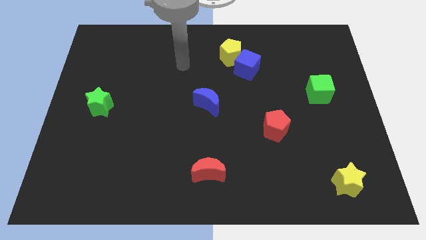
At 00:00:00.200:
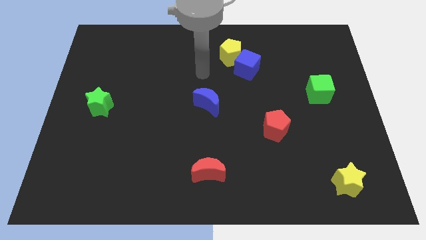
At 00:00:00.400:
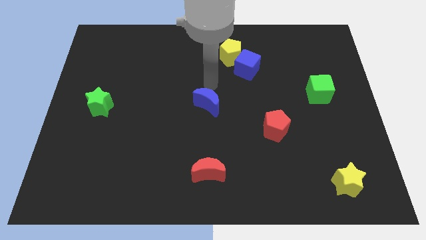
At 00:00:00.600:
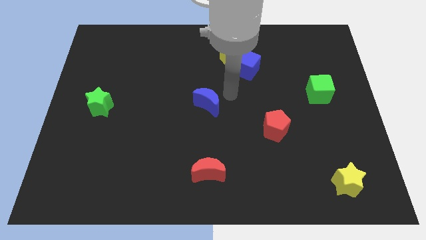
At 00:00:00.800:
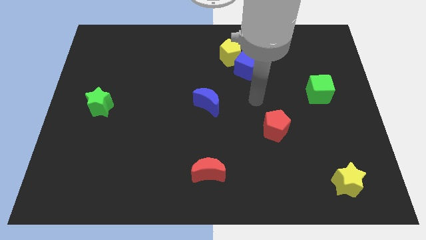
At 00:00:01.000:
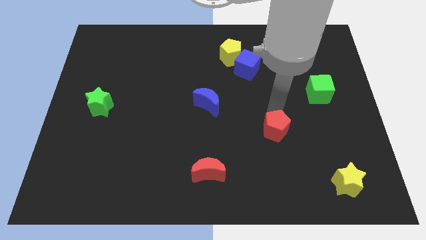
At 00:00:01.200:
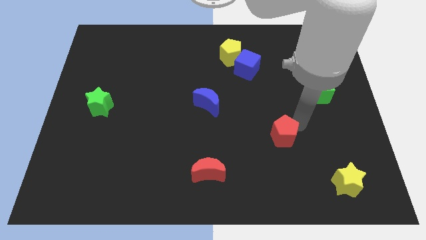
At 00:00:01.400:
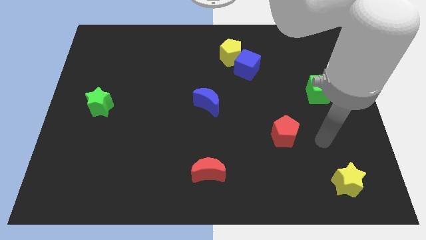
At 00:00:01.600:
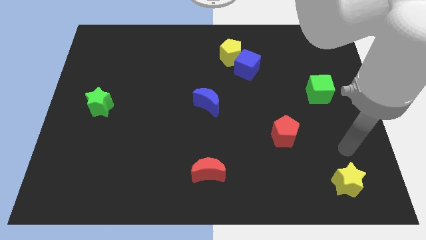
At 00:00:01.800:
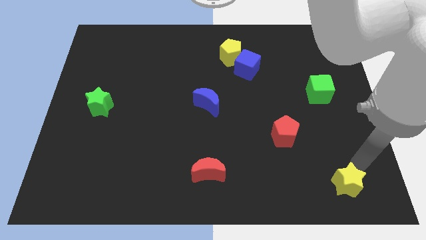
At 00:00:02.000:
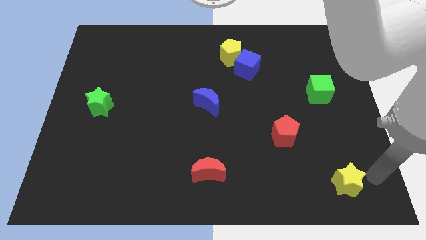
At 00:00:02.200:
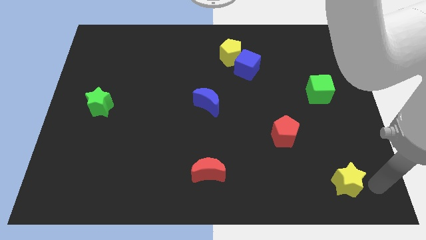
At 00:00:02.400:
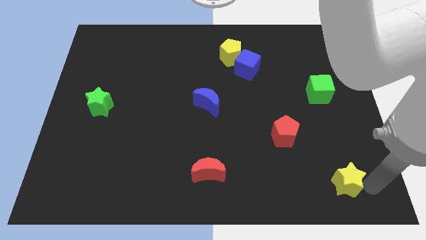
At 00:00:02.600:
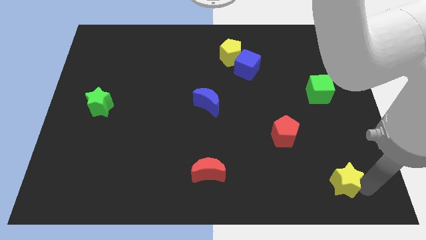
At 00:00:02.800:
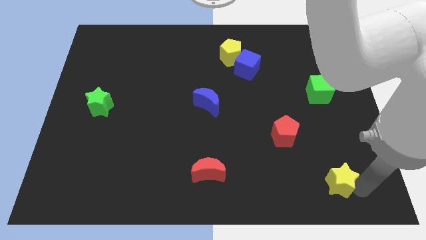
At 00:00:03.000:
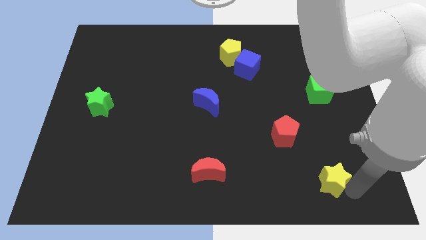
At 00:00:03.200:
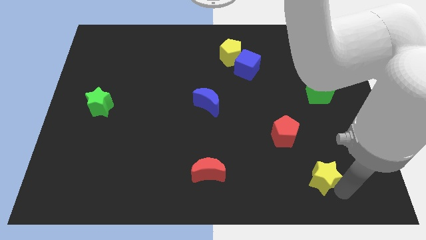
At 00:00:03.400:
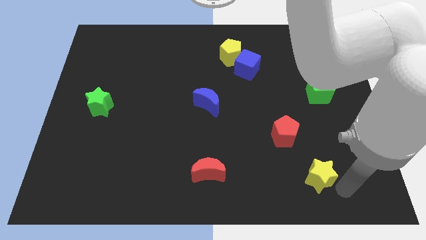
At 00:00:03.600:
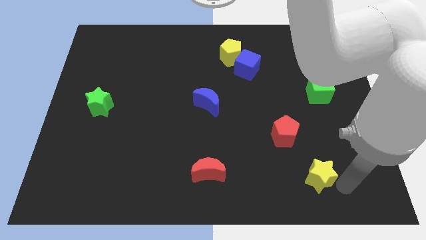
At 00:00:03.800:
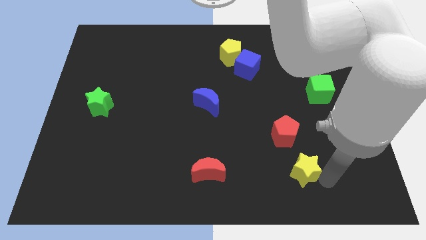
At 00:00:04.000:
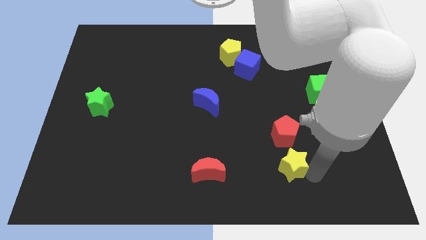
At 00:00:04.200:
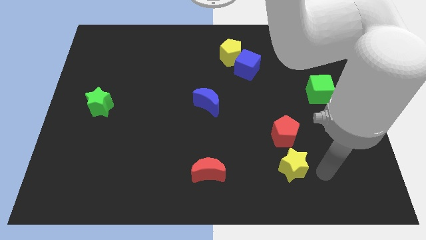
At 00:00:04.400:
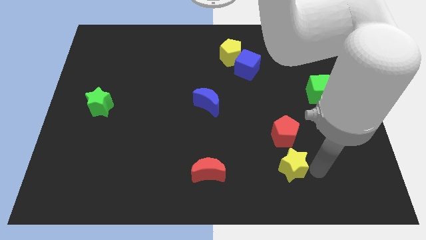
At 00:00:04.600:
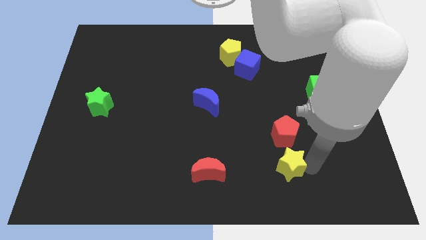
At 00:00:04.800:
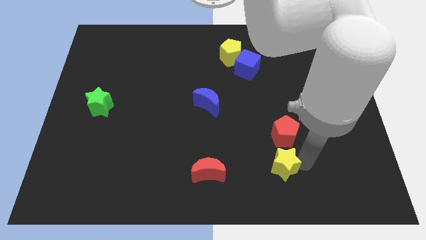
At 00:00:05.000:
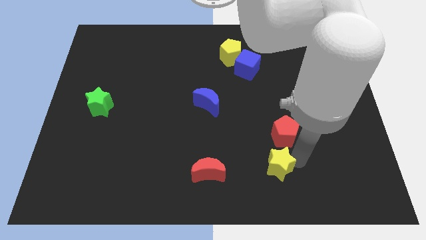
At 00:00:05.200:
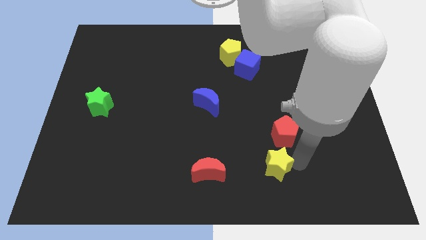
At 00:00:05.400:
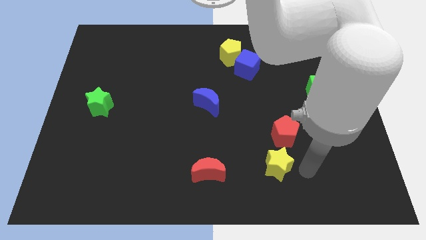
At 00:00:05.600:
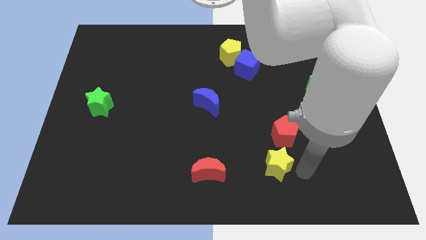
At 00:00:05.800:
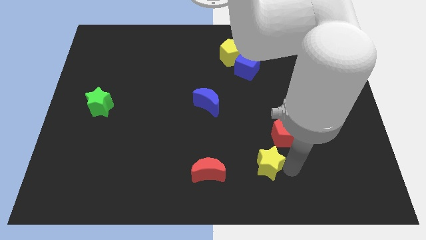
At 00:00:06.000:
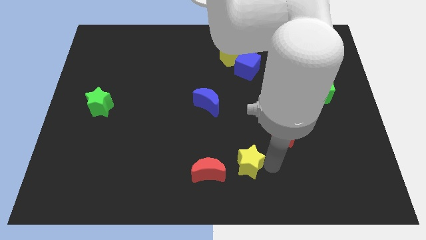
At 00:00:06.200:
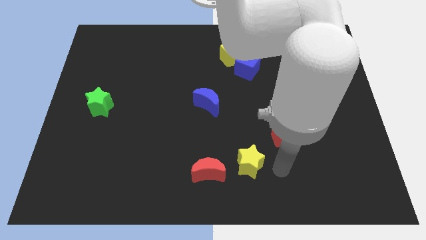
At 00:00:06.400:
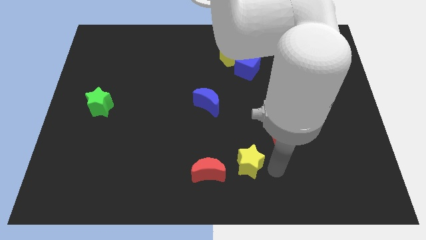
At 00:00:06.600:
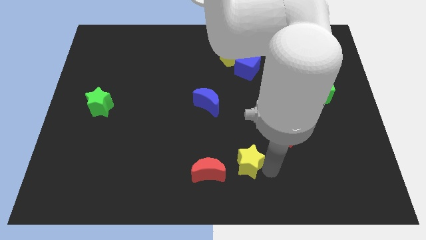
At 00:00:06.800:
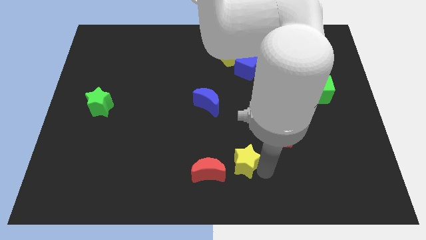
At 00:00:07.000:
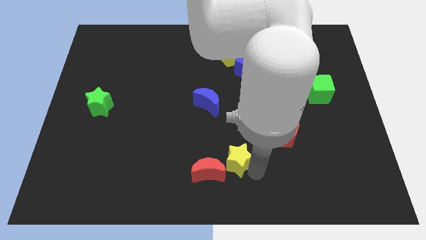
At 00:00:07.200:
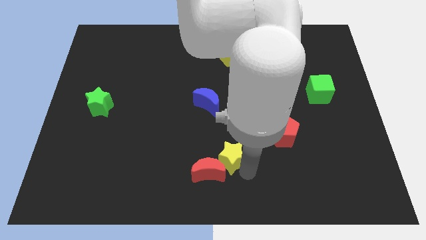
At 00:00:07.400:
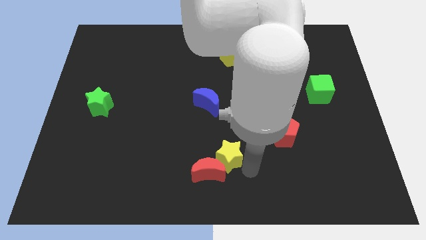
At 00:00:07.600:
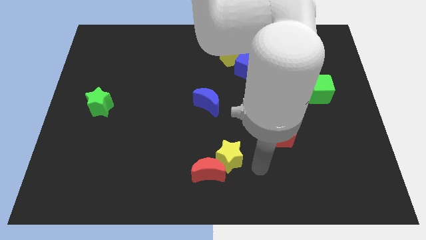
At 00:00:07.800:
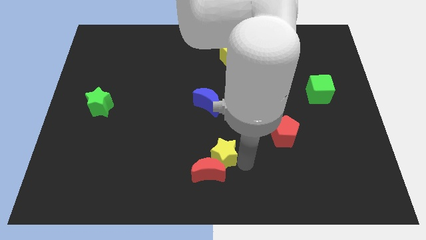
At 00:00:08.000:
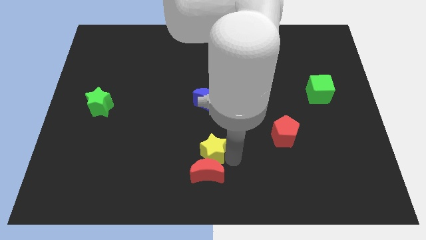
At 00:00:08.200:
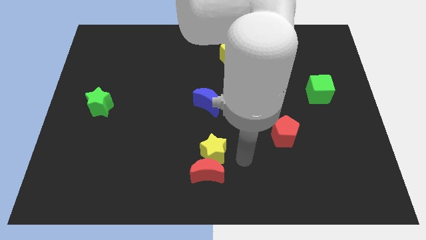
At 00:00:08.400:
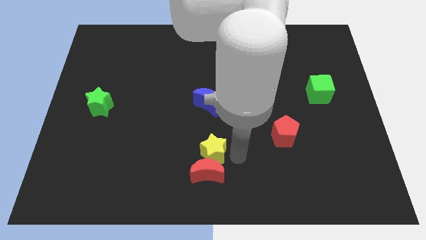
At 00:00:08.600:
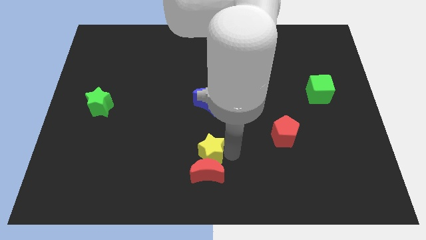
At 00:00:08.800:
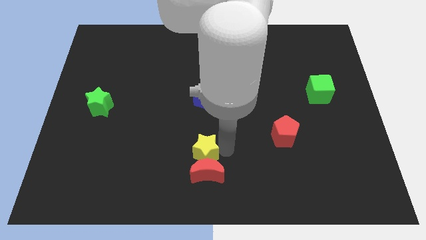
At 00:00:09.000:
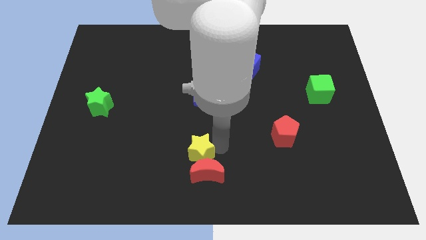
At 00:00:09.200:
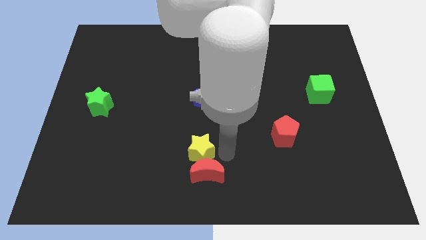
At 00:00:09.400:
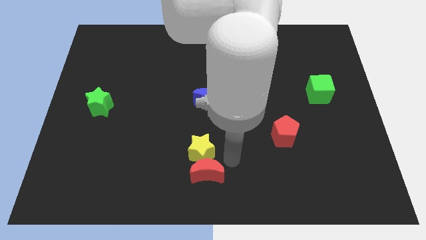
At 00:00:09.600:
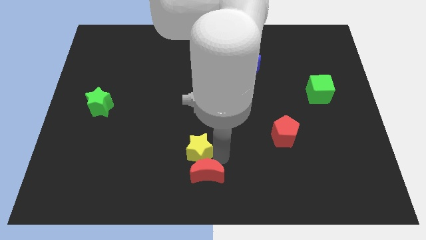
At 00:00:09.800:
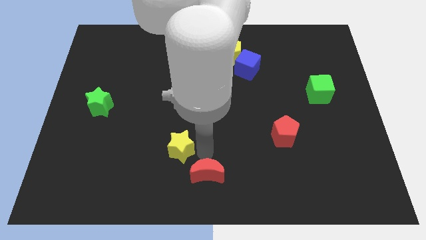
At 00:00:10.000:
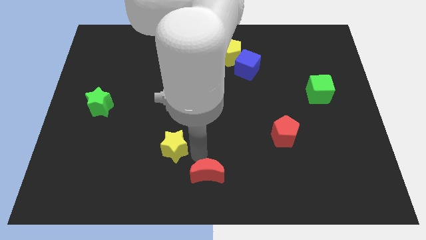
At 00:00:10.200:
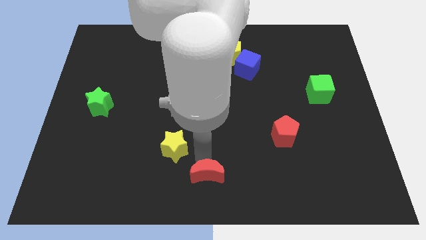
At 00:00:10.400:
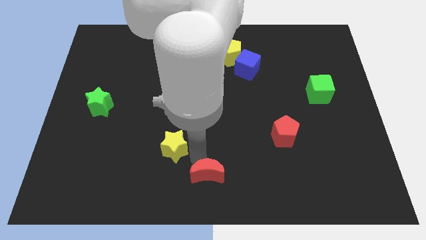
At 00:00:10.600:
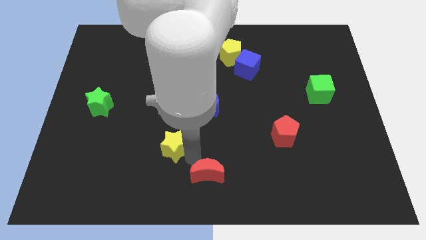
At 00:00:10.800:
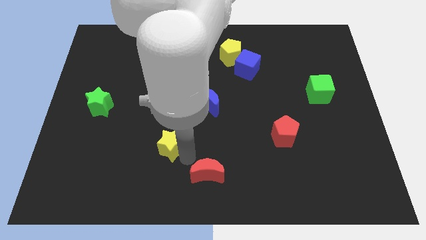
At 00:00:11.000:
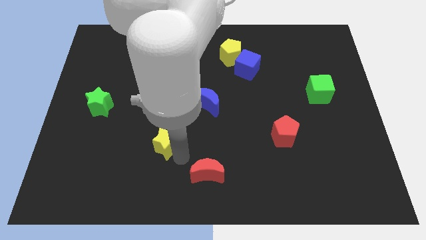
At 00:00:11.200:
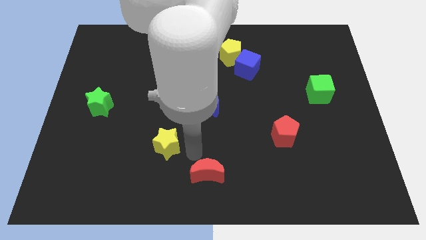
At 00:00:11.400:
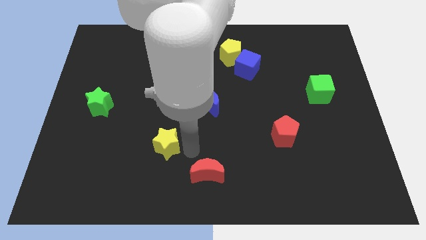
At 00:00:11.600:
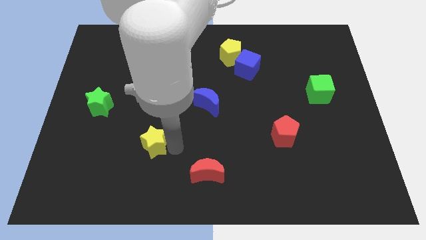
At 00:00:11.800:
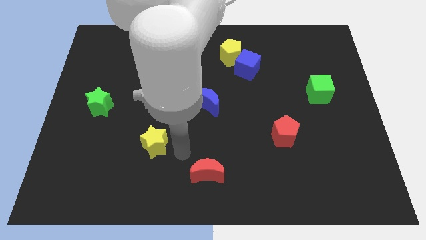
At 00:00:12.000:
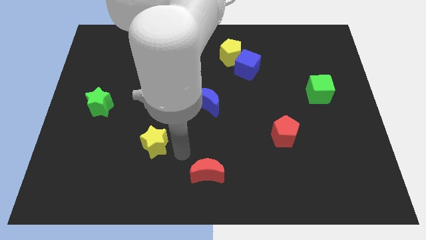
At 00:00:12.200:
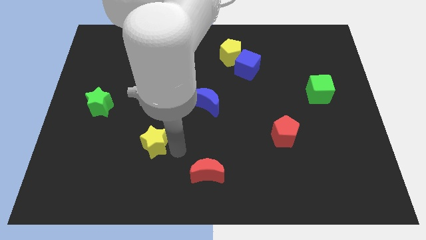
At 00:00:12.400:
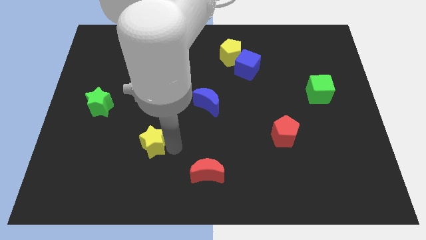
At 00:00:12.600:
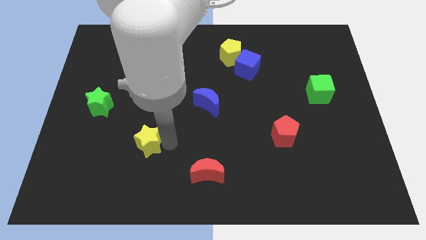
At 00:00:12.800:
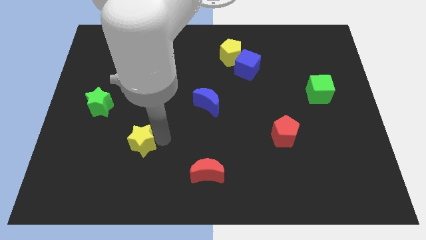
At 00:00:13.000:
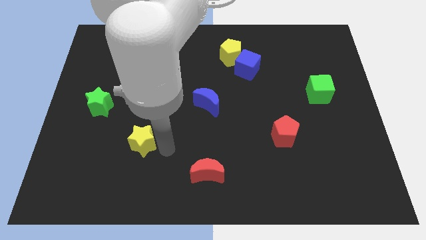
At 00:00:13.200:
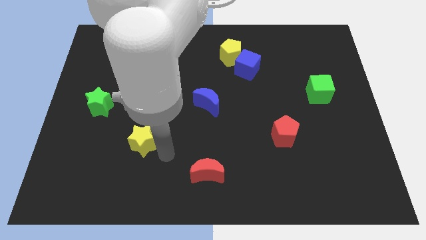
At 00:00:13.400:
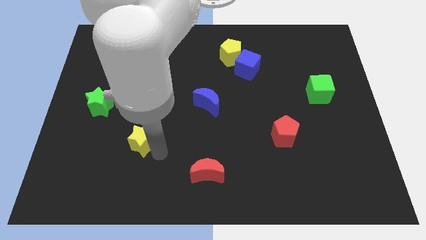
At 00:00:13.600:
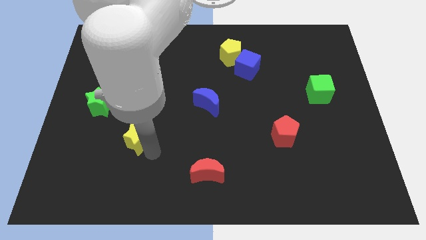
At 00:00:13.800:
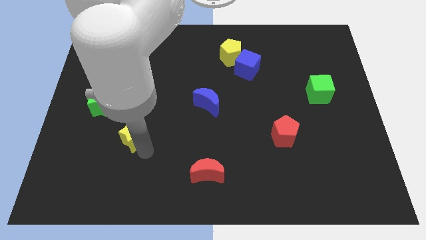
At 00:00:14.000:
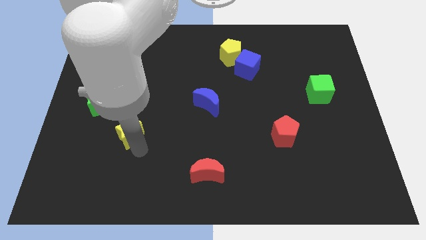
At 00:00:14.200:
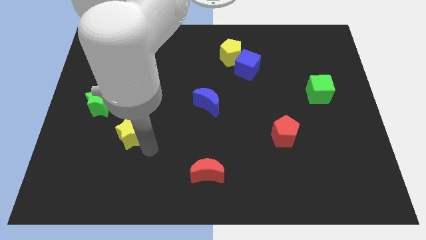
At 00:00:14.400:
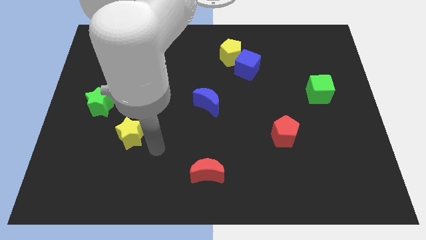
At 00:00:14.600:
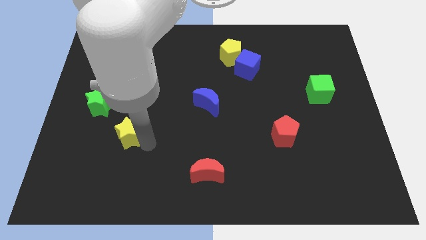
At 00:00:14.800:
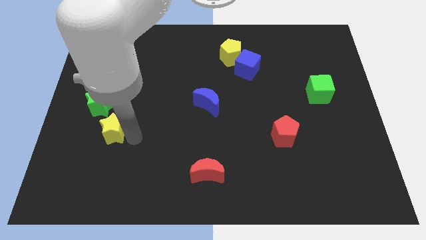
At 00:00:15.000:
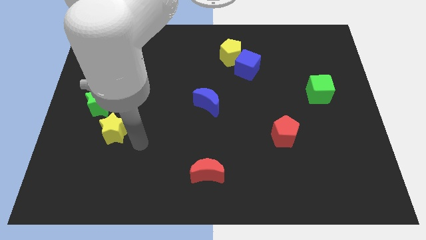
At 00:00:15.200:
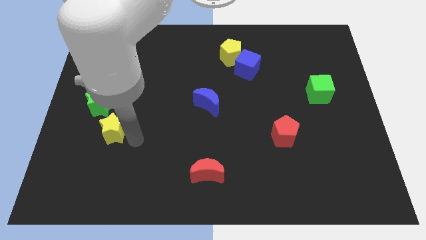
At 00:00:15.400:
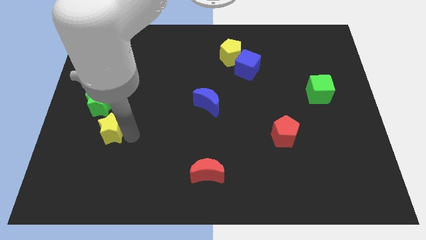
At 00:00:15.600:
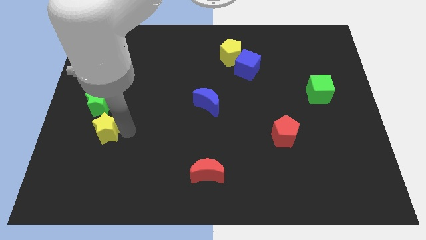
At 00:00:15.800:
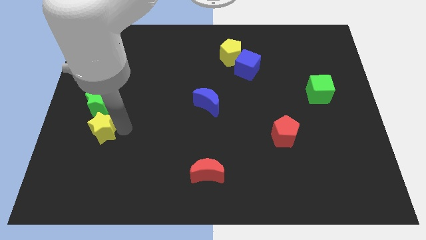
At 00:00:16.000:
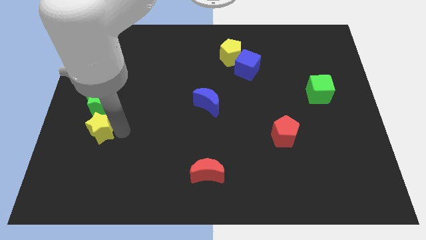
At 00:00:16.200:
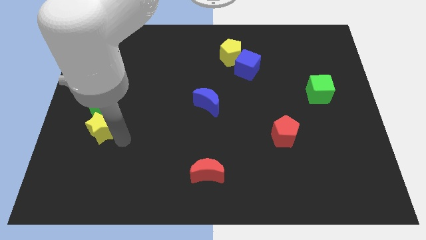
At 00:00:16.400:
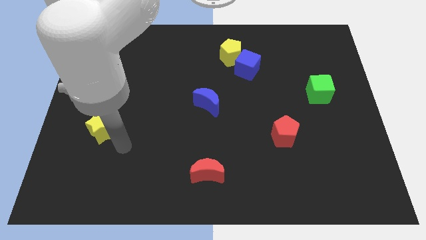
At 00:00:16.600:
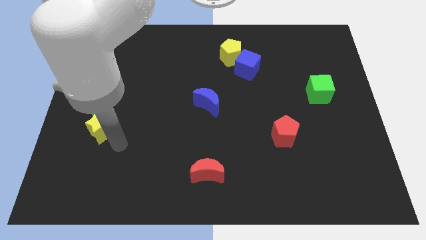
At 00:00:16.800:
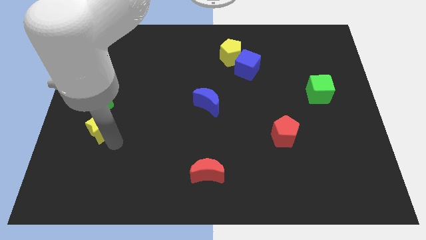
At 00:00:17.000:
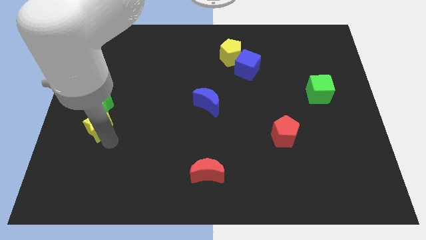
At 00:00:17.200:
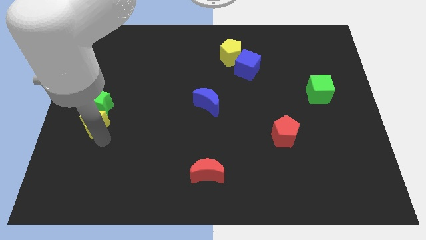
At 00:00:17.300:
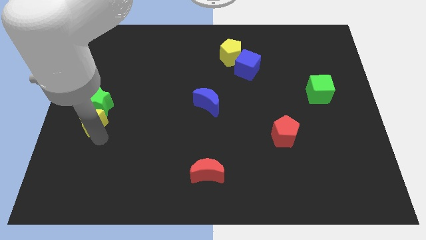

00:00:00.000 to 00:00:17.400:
slide the yellow star to the left side of the board
